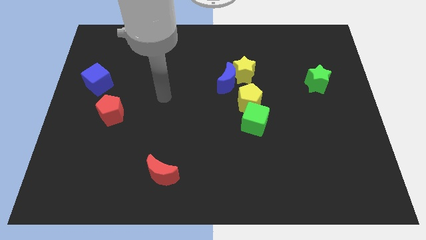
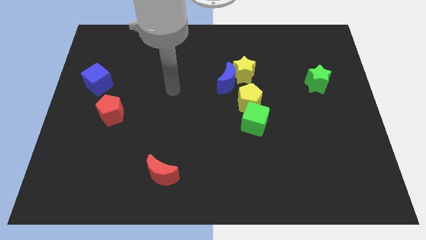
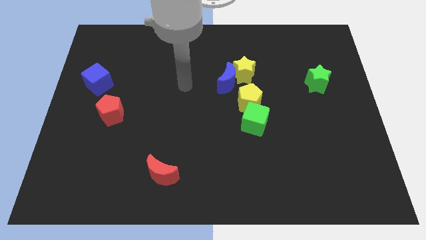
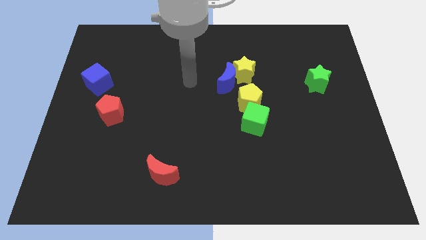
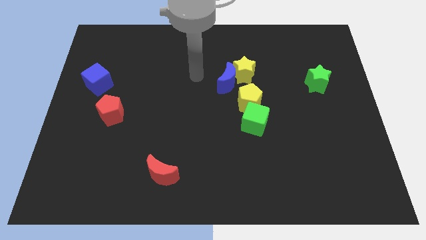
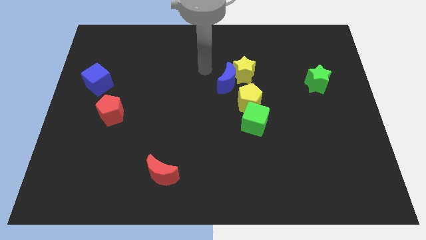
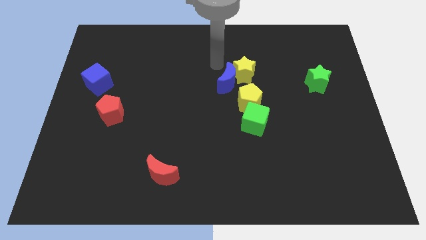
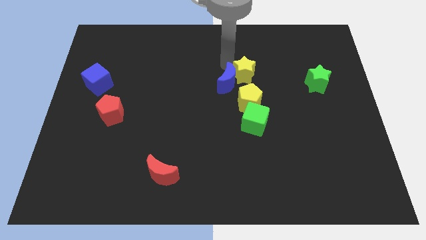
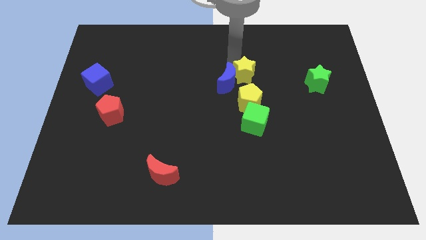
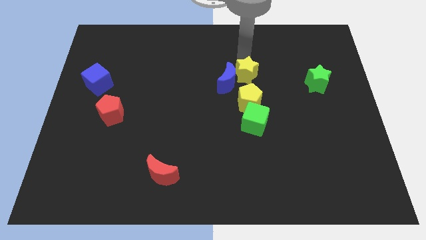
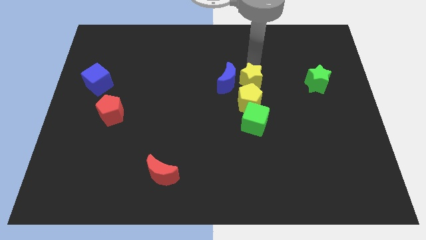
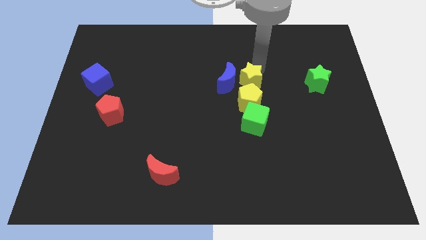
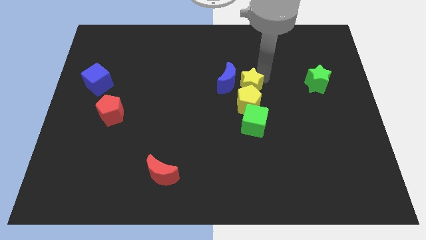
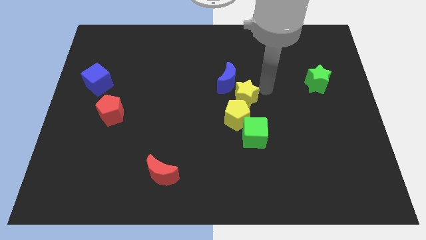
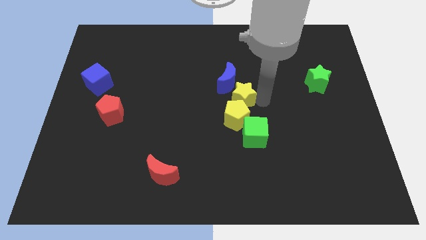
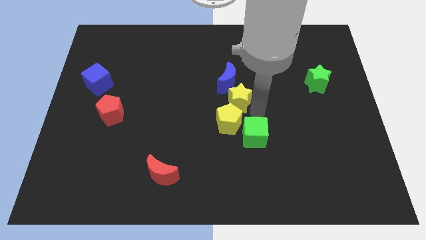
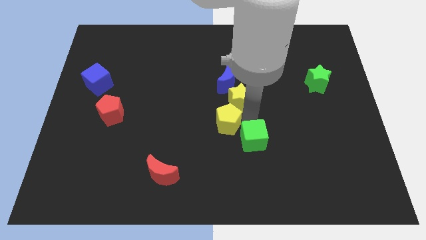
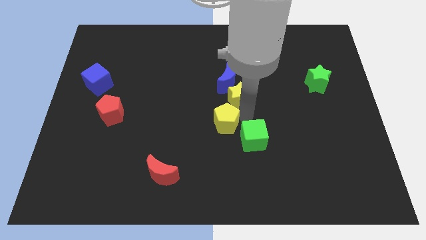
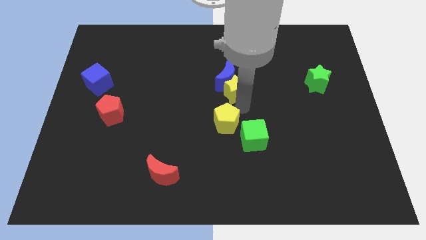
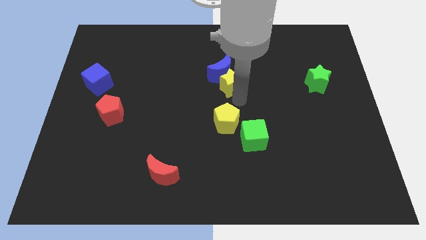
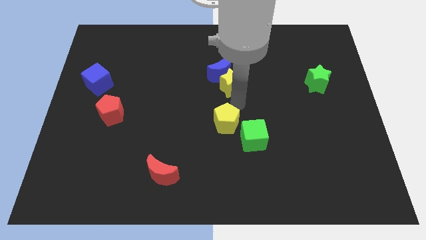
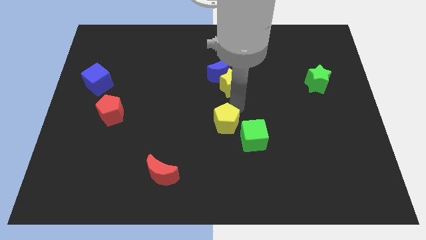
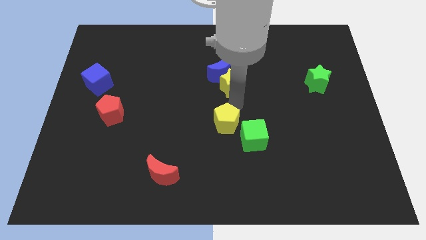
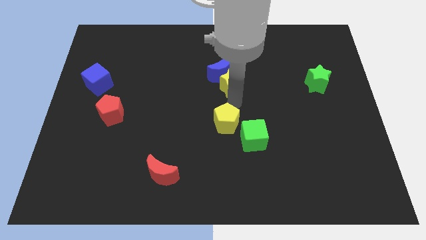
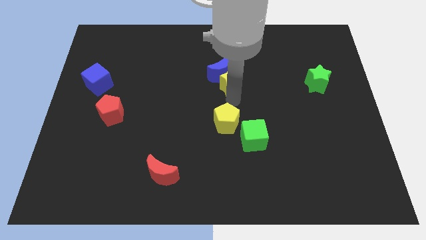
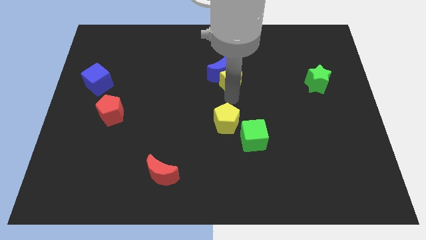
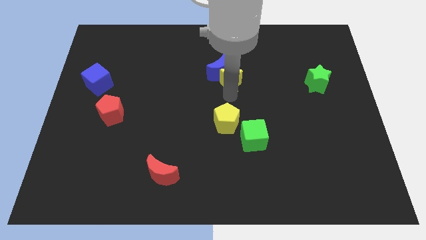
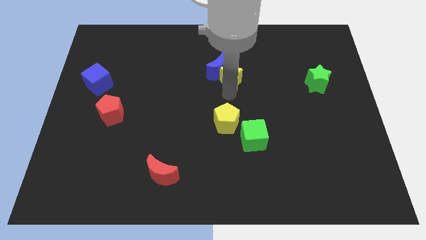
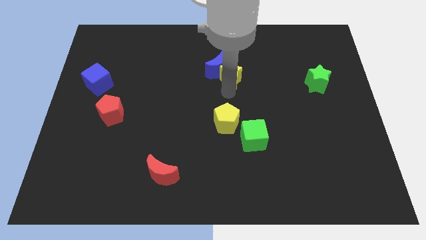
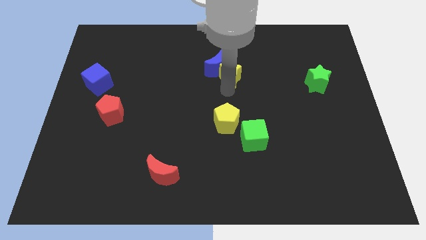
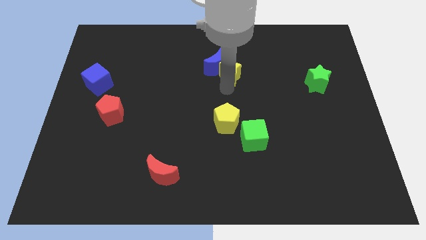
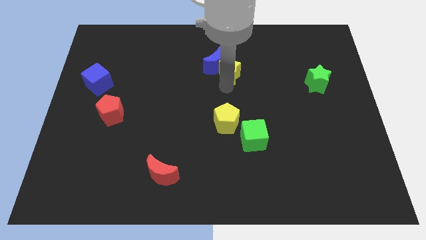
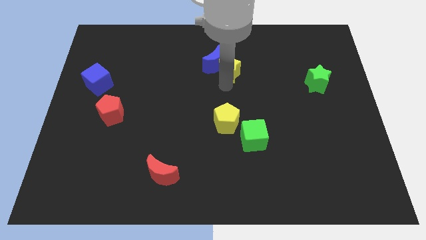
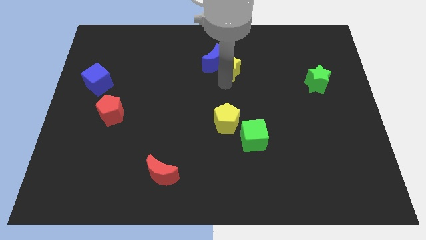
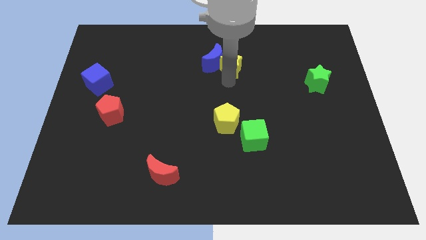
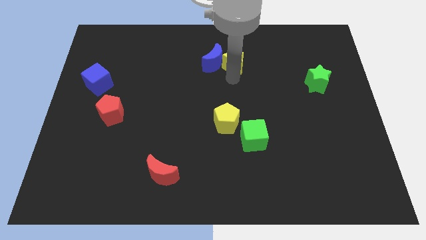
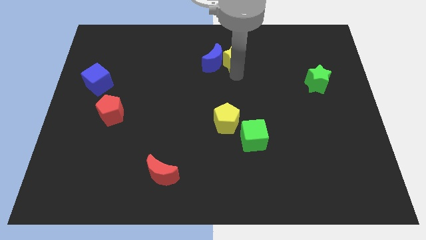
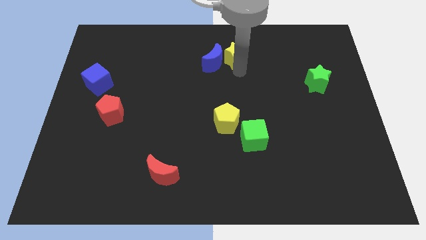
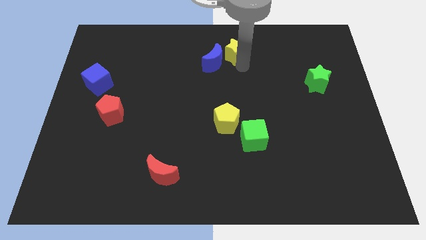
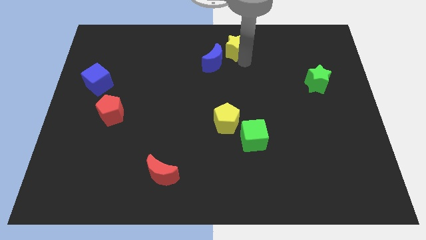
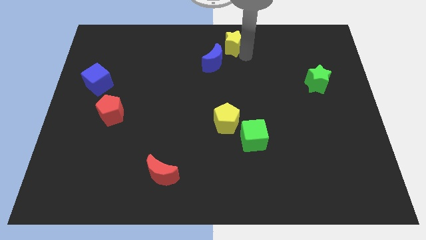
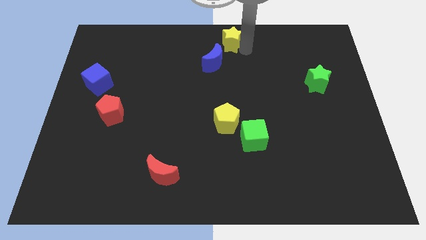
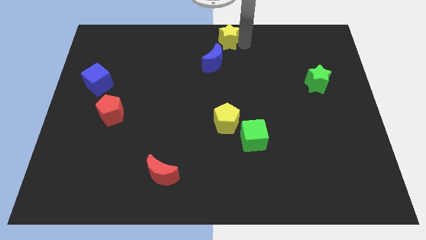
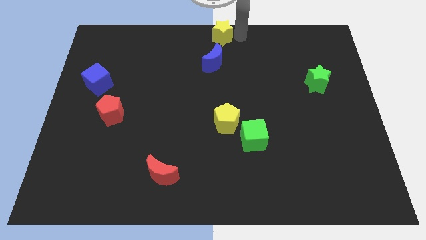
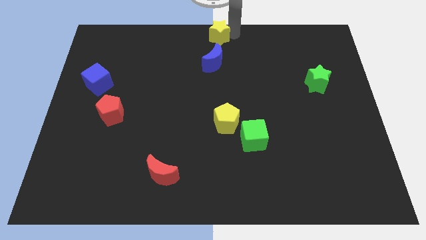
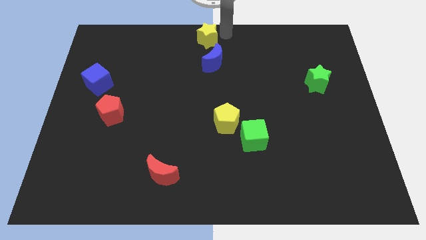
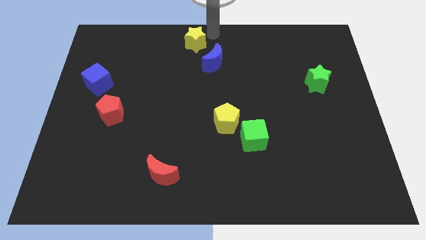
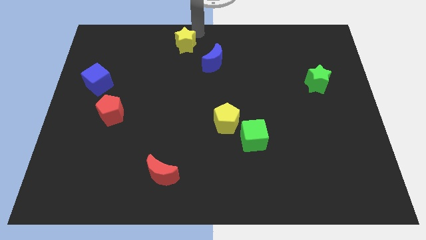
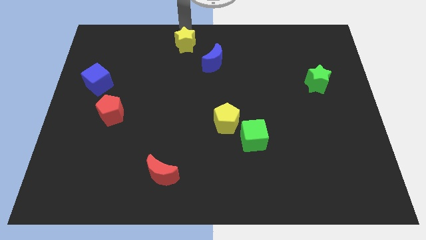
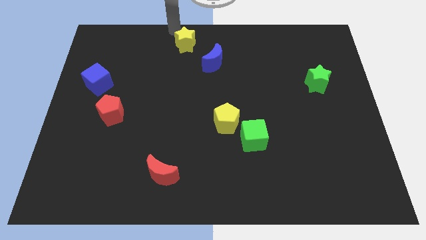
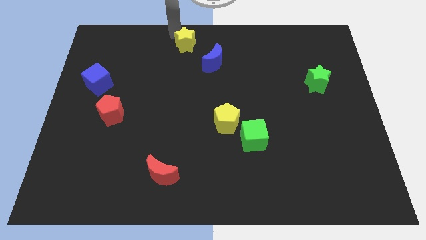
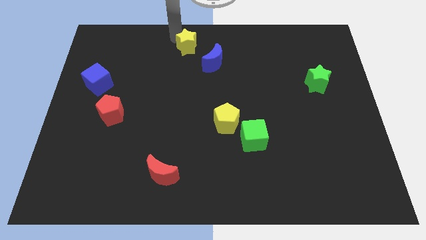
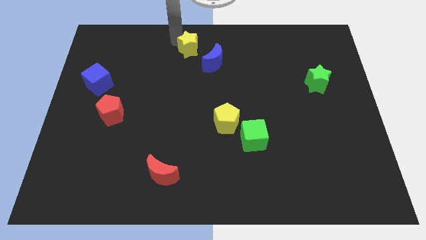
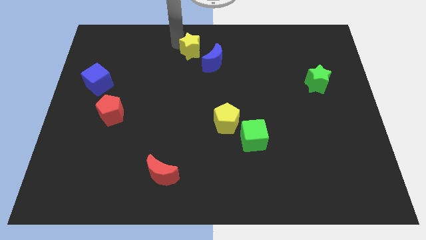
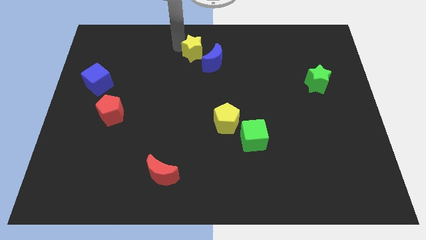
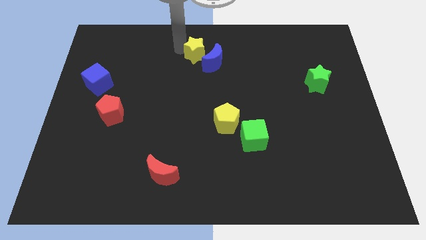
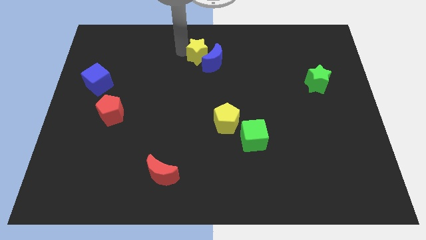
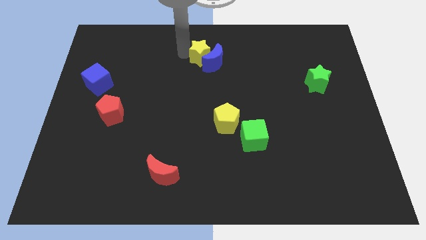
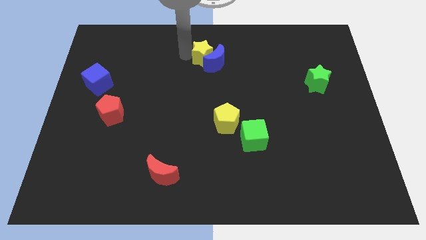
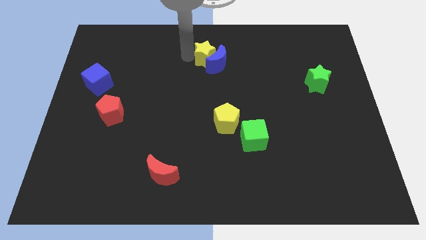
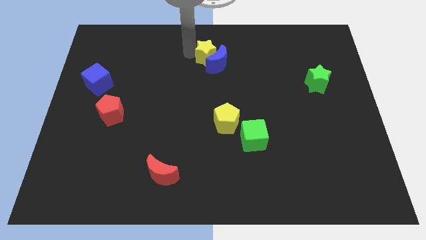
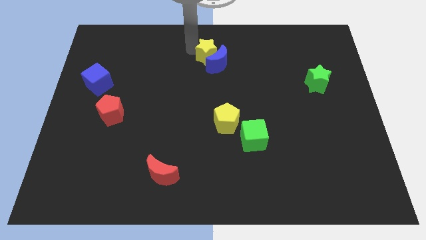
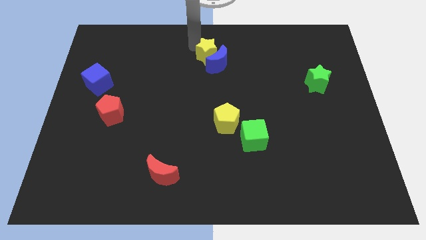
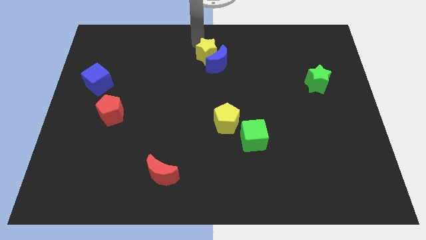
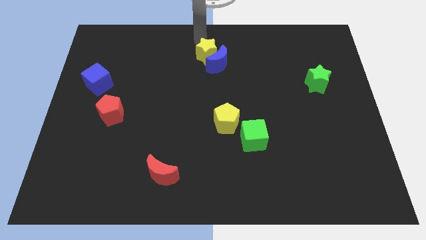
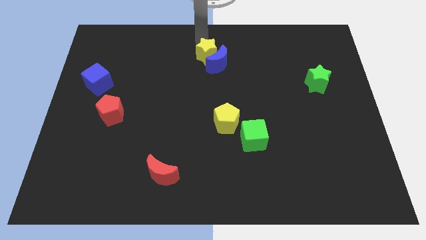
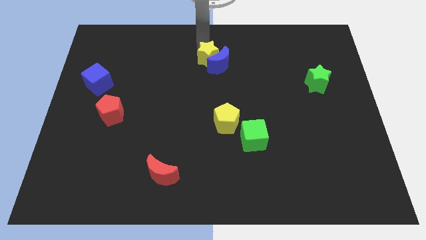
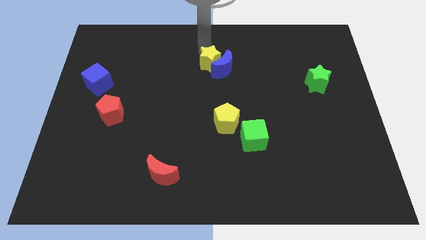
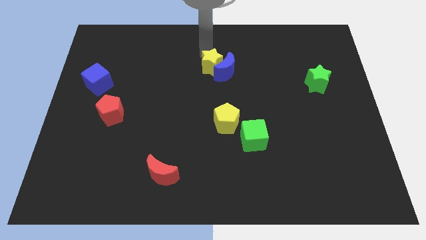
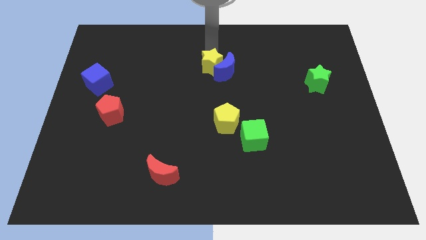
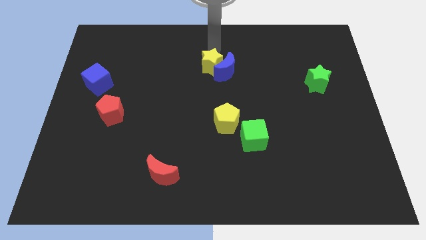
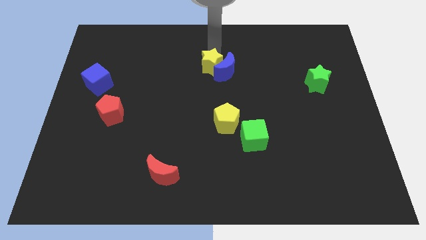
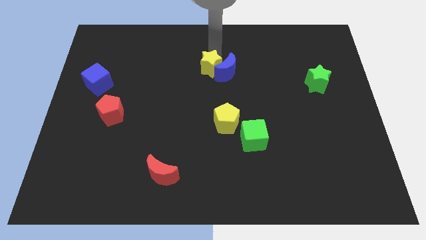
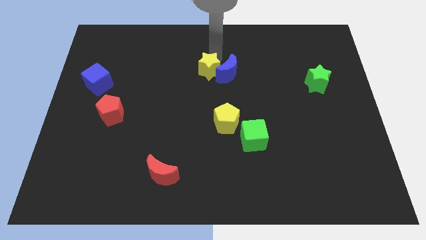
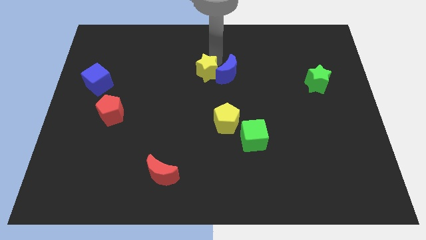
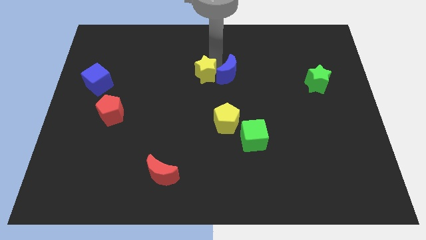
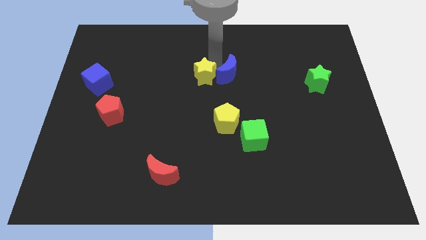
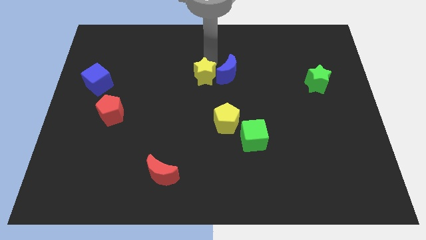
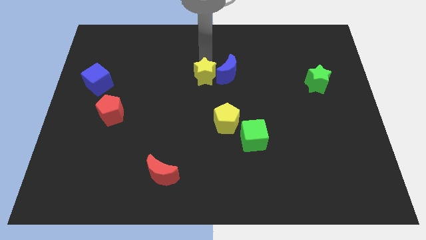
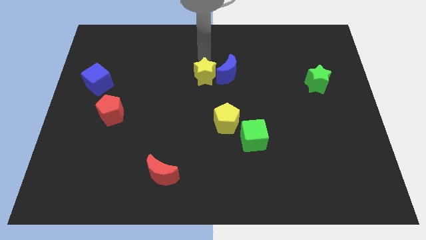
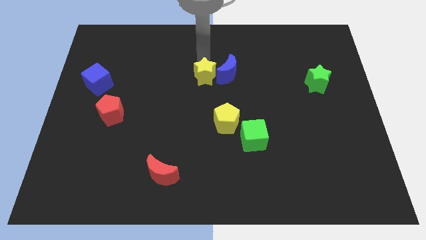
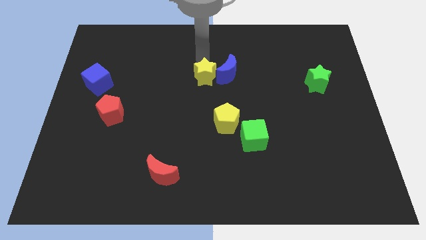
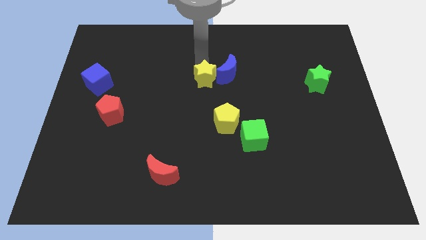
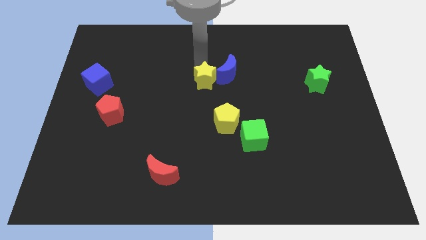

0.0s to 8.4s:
move the yellow star diagonally down and left a little
